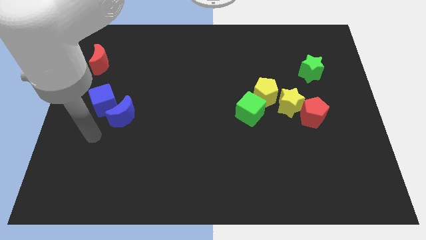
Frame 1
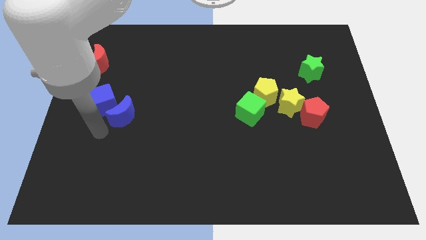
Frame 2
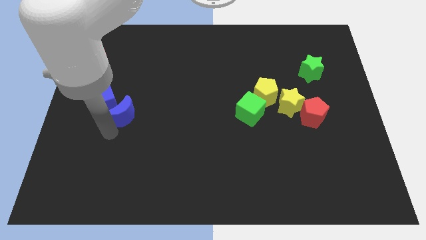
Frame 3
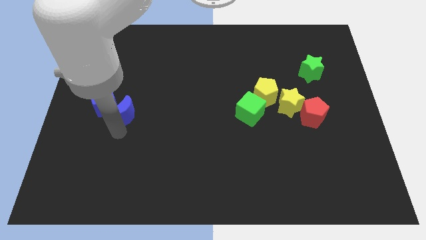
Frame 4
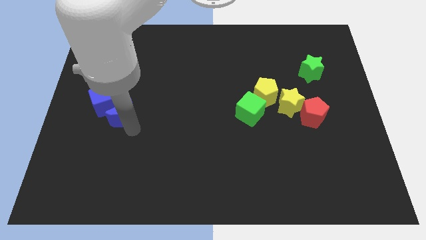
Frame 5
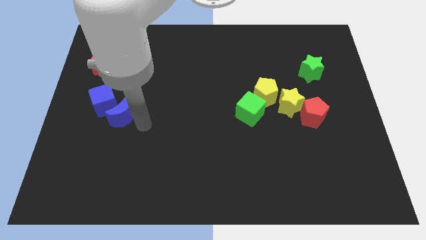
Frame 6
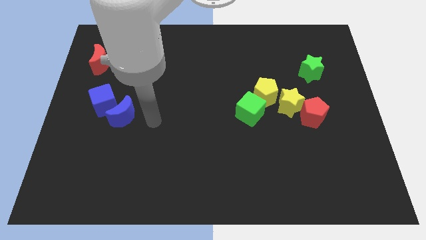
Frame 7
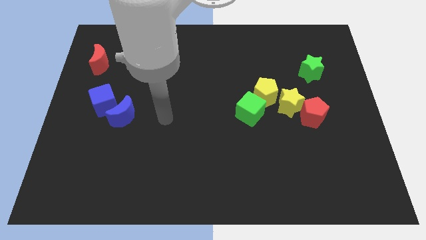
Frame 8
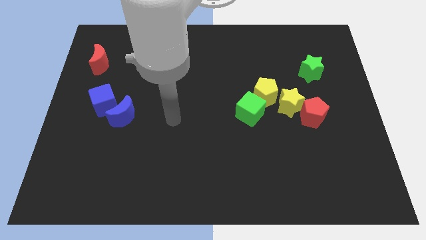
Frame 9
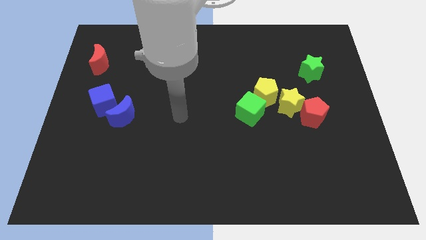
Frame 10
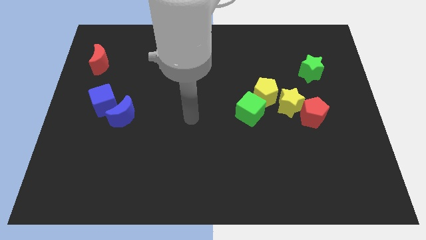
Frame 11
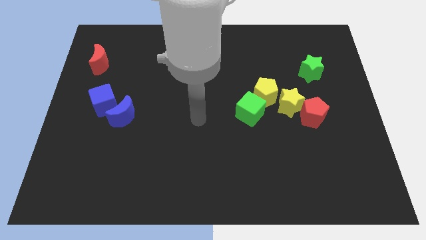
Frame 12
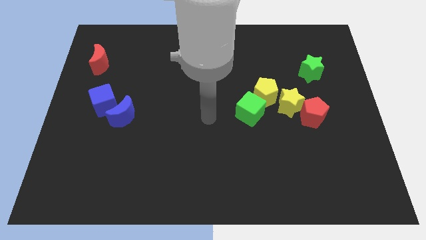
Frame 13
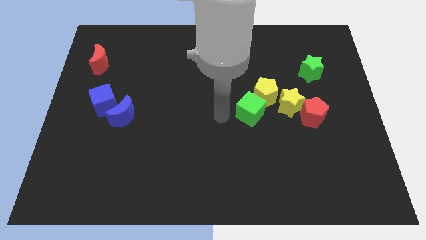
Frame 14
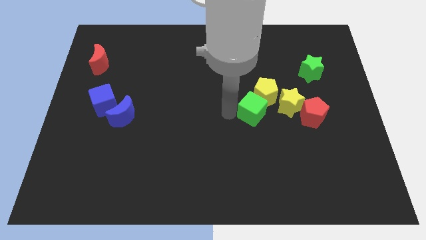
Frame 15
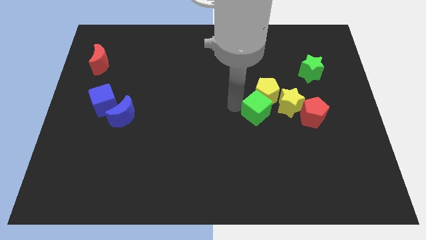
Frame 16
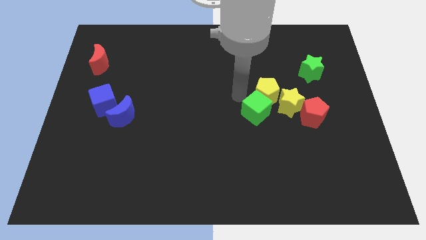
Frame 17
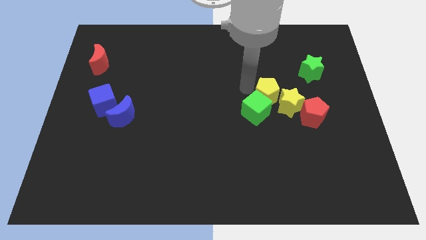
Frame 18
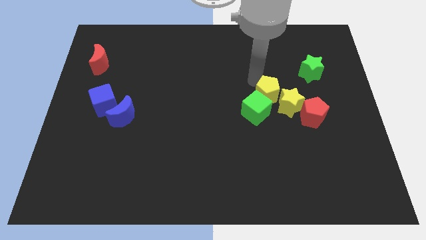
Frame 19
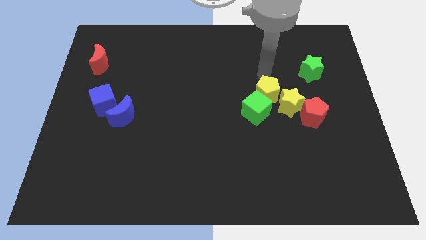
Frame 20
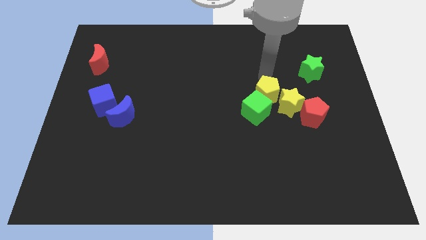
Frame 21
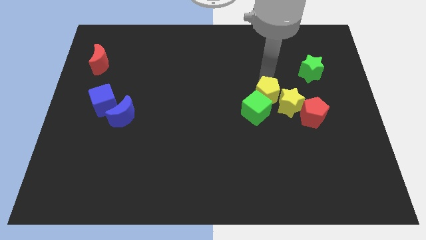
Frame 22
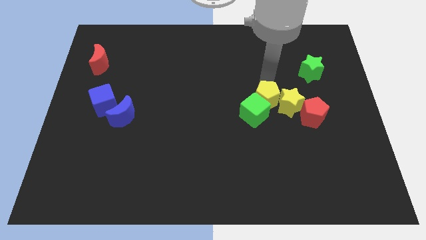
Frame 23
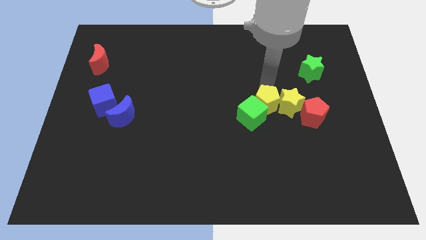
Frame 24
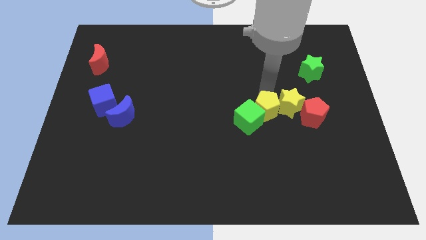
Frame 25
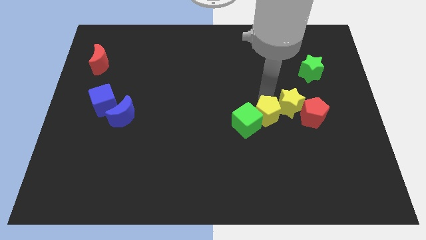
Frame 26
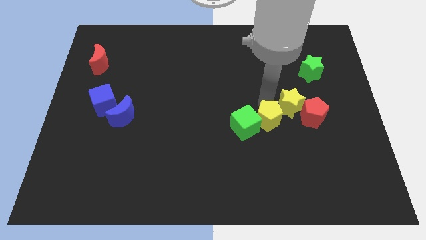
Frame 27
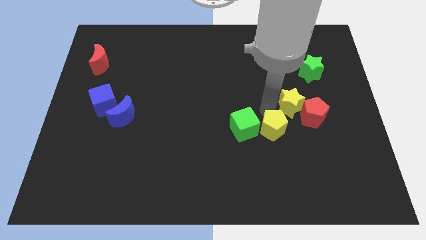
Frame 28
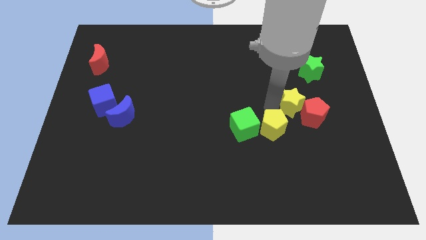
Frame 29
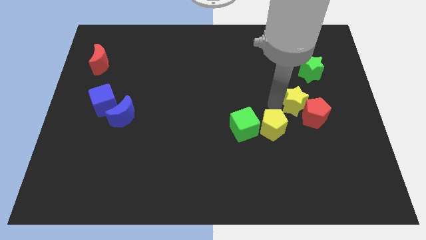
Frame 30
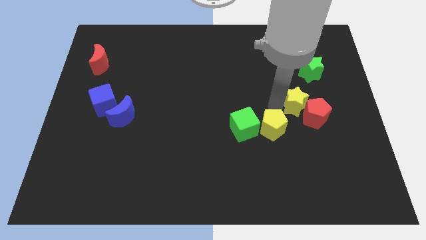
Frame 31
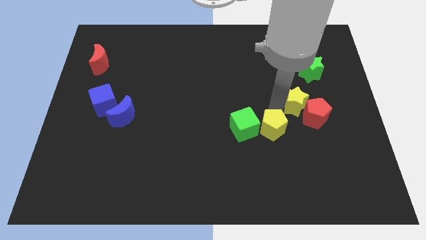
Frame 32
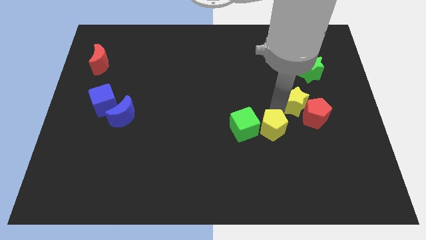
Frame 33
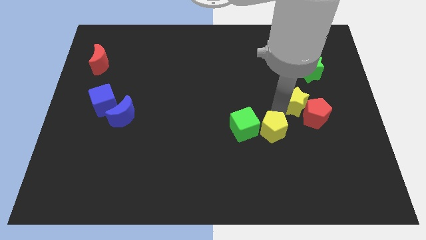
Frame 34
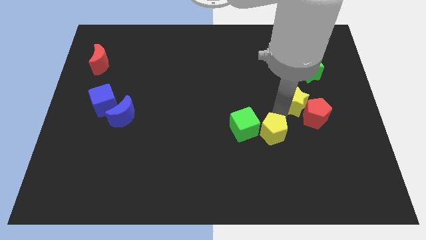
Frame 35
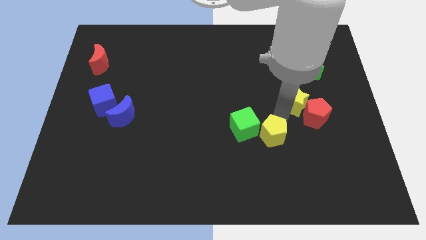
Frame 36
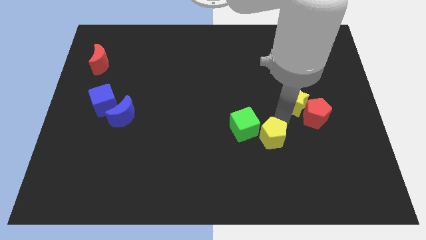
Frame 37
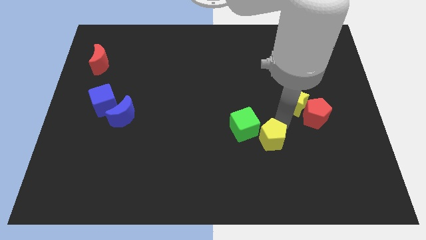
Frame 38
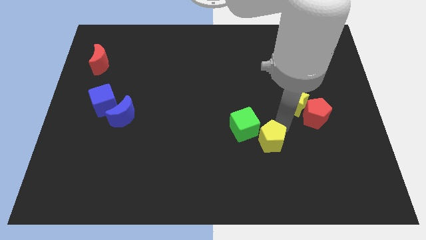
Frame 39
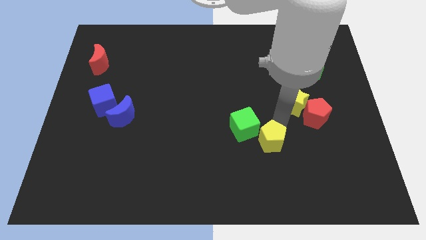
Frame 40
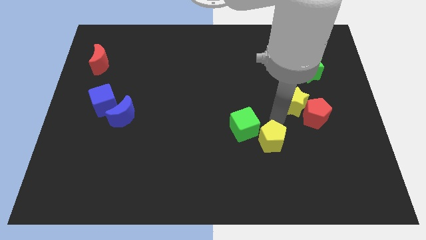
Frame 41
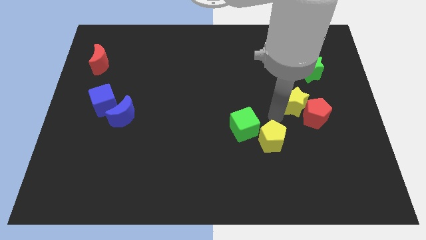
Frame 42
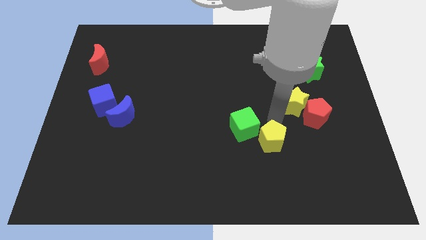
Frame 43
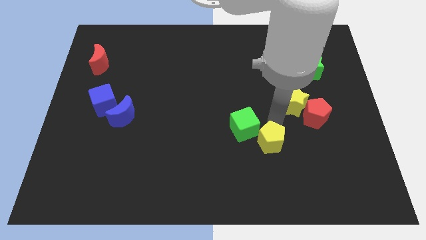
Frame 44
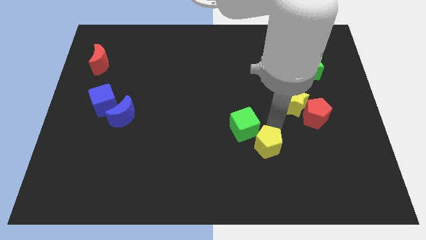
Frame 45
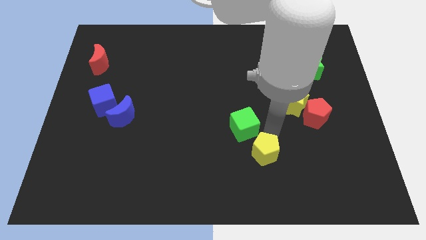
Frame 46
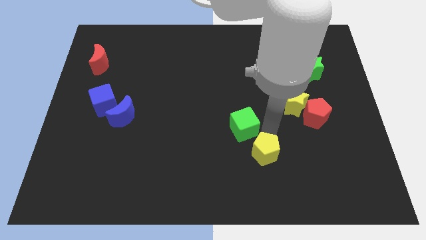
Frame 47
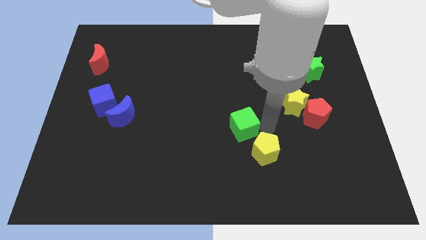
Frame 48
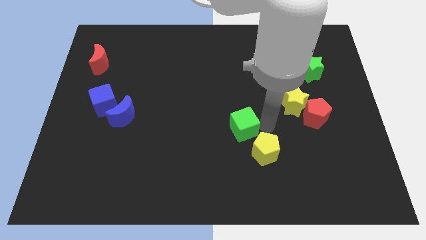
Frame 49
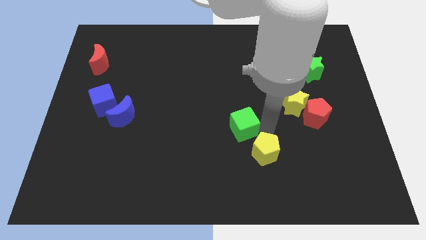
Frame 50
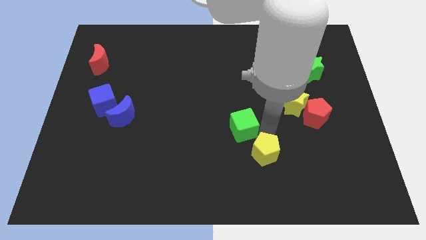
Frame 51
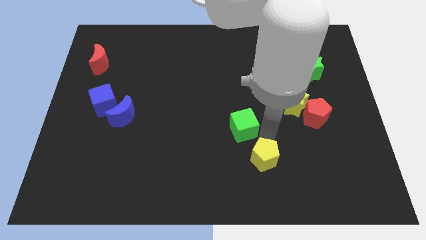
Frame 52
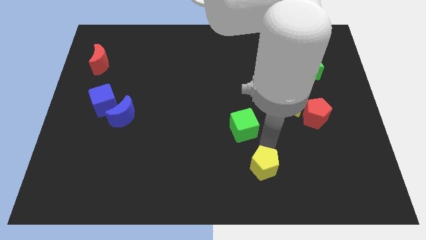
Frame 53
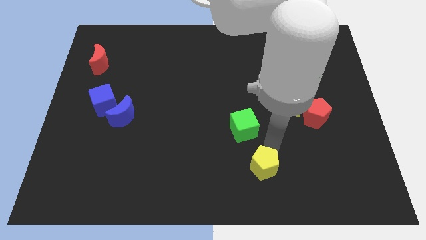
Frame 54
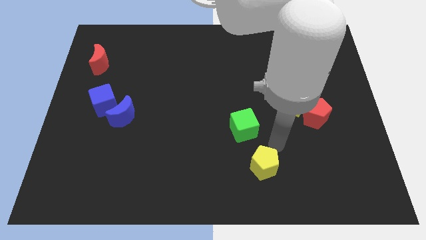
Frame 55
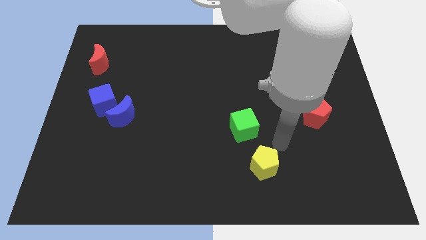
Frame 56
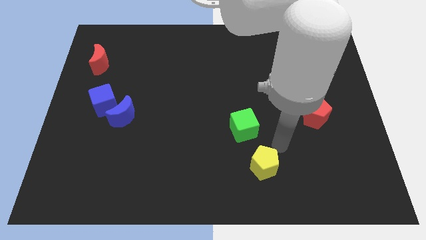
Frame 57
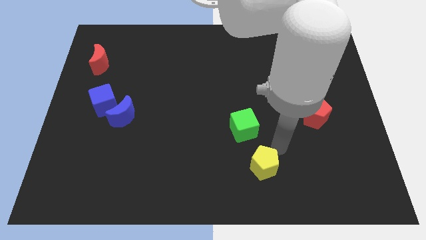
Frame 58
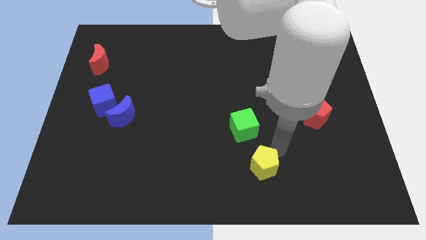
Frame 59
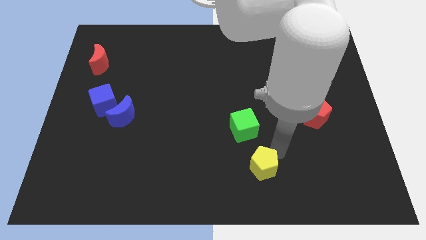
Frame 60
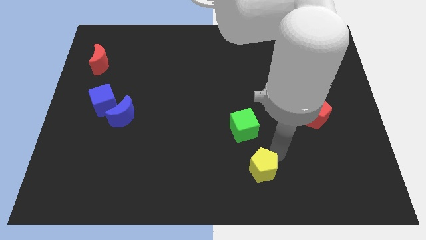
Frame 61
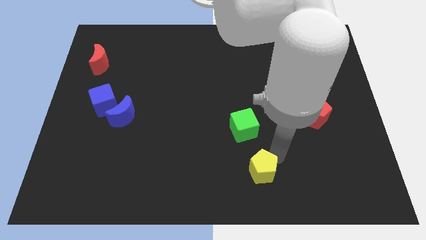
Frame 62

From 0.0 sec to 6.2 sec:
push the yellow pentagon to the bottom

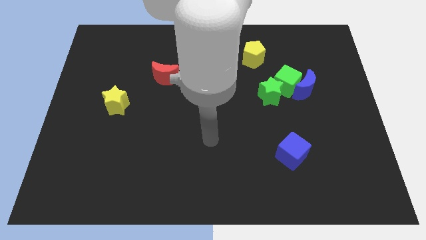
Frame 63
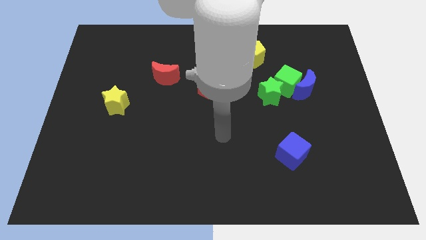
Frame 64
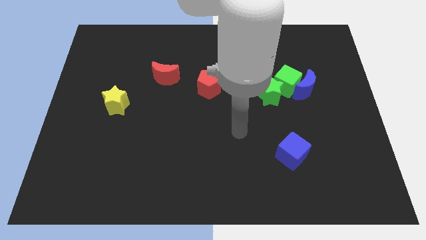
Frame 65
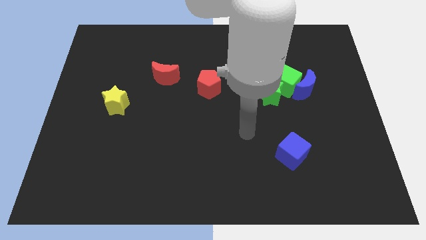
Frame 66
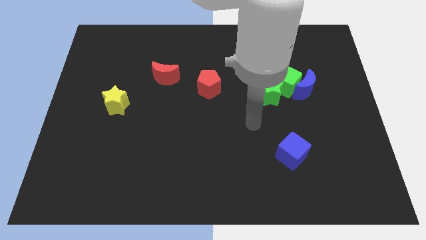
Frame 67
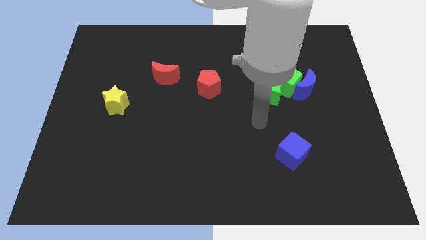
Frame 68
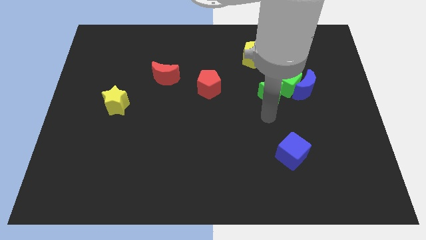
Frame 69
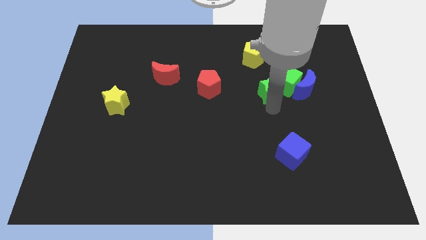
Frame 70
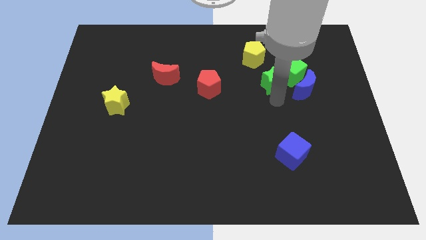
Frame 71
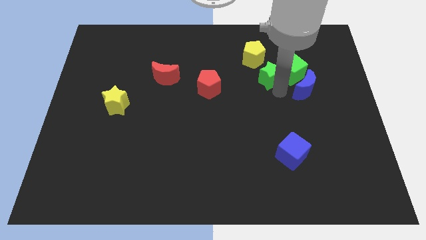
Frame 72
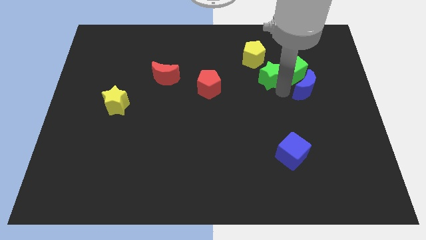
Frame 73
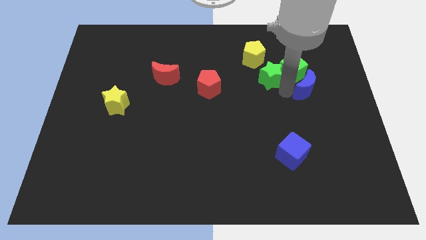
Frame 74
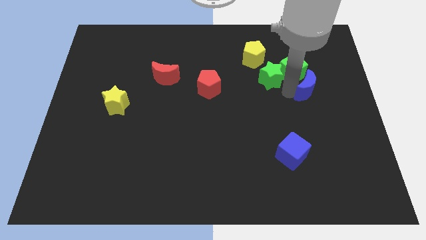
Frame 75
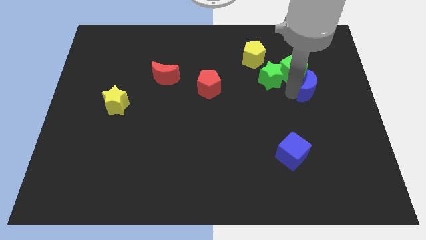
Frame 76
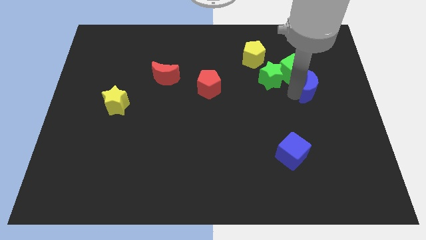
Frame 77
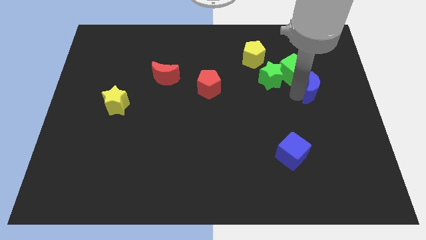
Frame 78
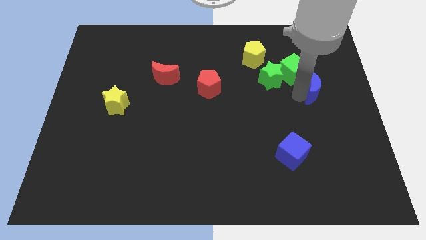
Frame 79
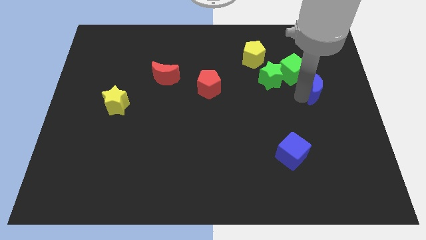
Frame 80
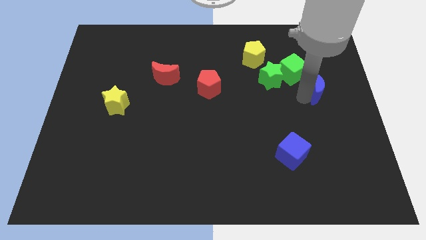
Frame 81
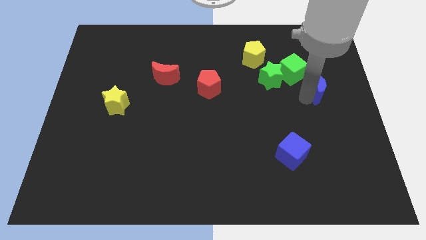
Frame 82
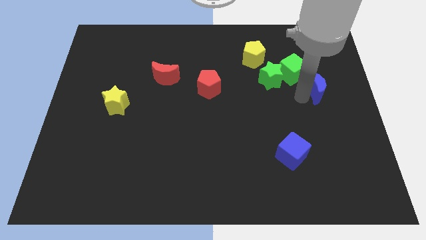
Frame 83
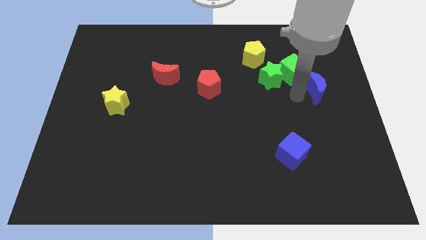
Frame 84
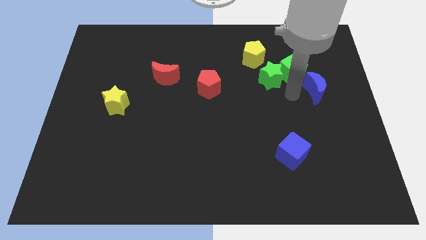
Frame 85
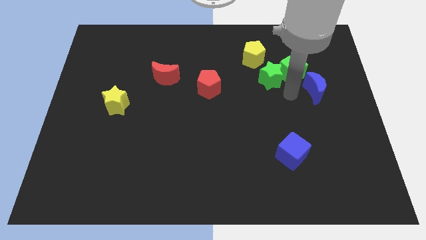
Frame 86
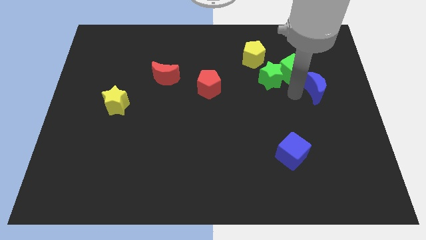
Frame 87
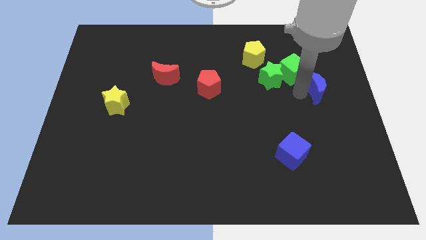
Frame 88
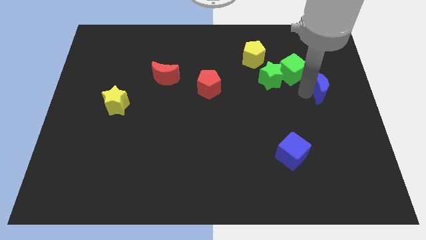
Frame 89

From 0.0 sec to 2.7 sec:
push the blue moon to the right side of the board
